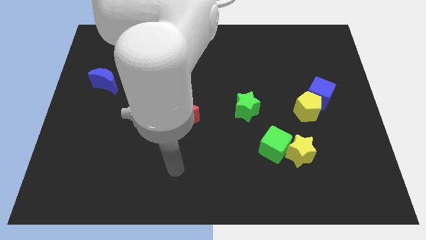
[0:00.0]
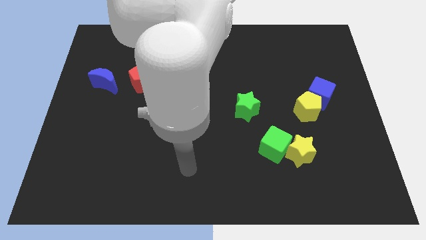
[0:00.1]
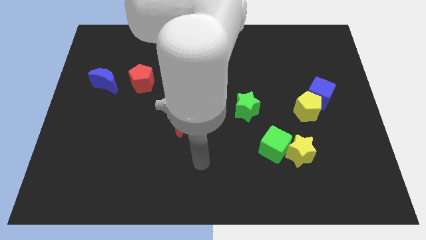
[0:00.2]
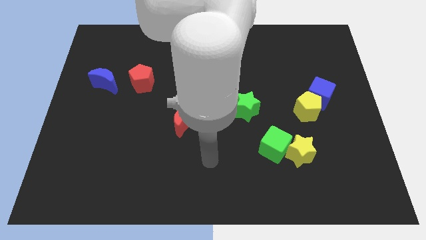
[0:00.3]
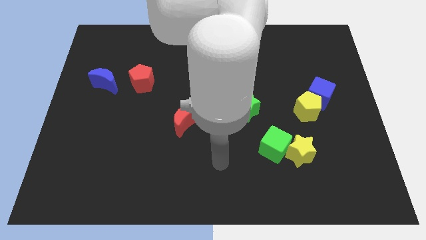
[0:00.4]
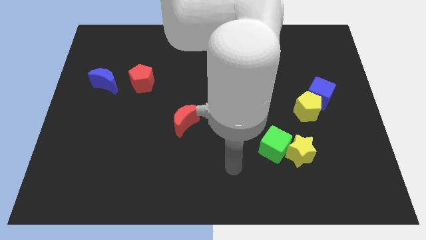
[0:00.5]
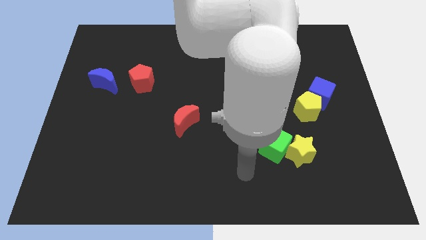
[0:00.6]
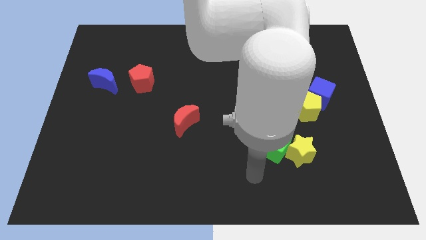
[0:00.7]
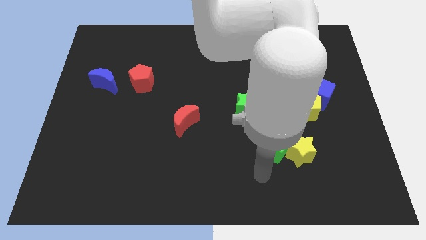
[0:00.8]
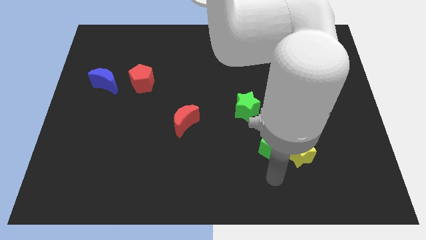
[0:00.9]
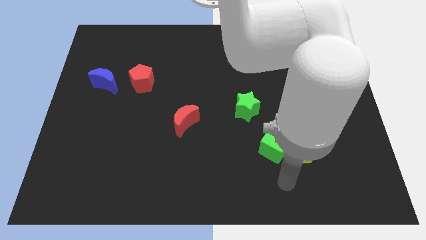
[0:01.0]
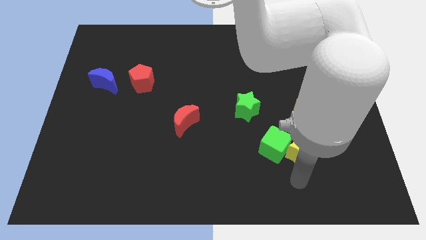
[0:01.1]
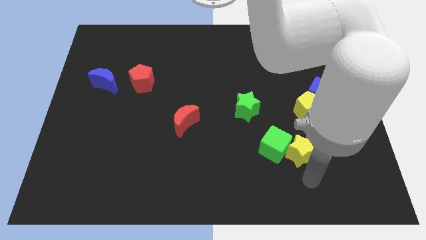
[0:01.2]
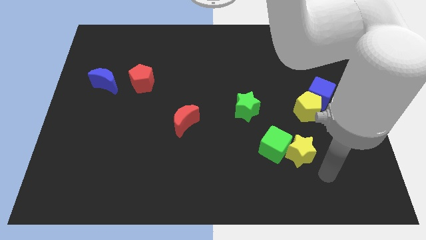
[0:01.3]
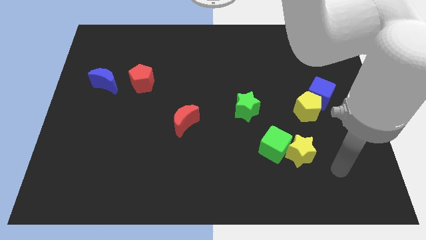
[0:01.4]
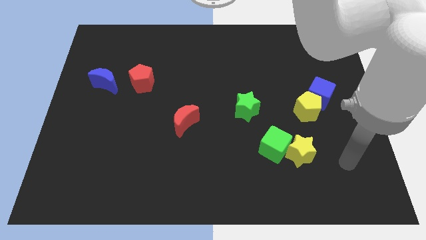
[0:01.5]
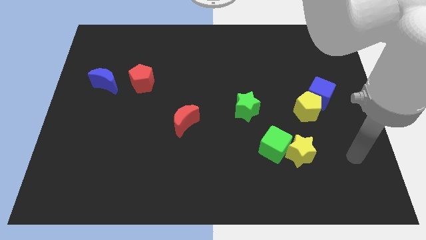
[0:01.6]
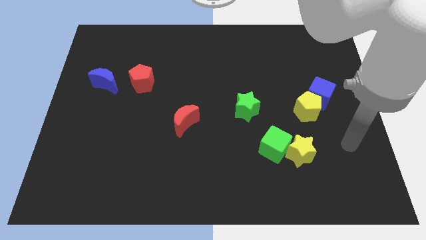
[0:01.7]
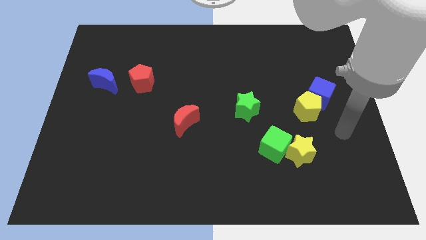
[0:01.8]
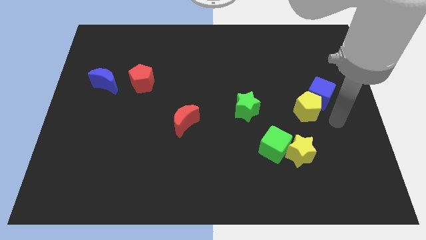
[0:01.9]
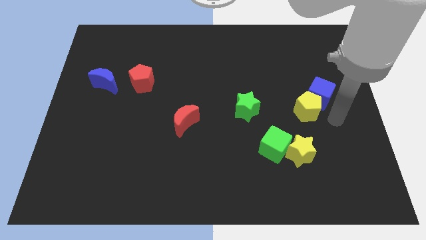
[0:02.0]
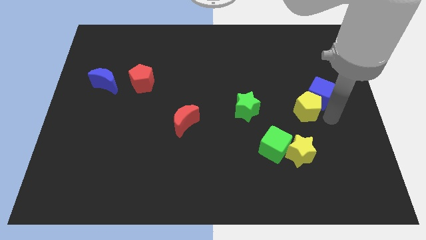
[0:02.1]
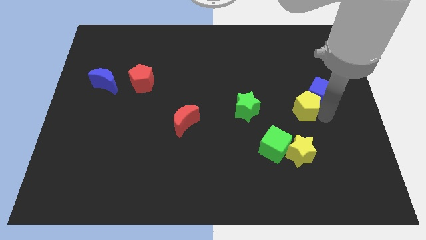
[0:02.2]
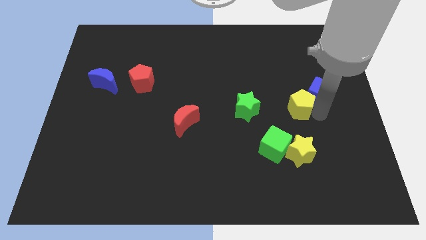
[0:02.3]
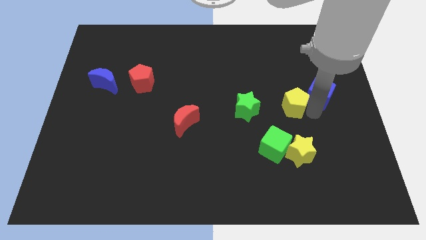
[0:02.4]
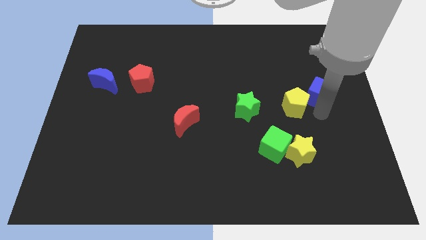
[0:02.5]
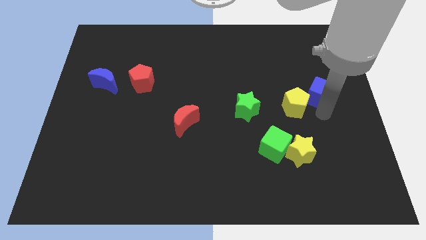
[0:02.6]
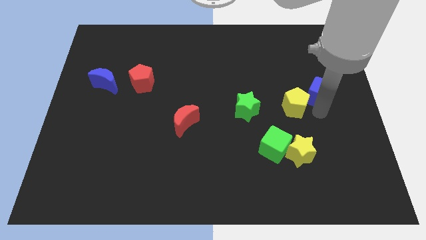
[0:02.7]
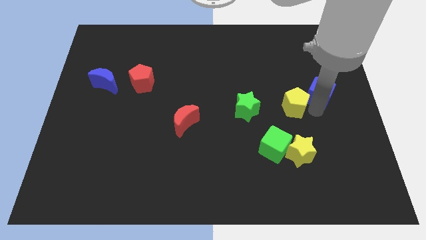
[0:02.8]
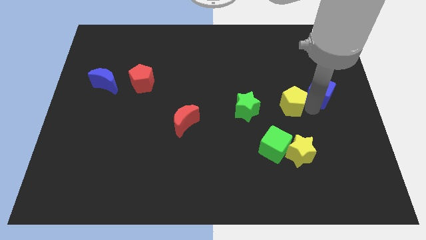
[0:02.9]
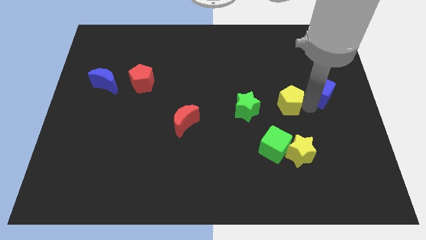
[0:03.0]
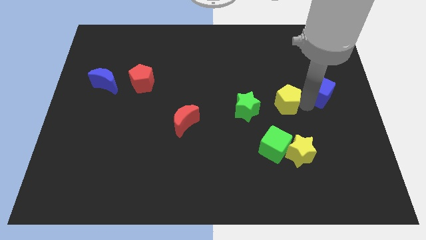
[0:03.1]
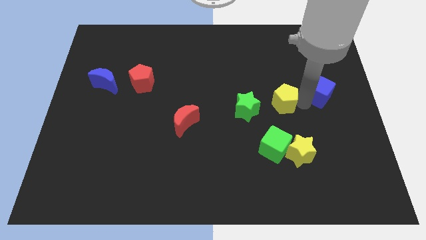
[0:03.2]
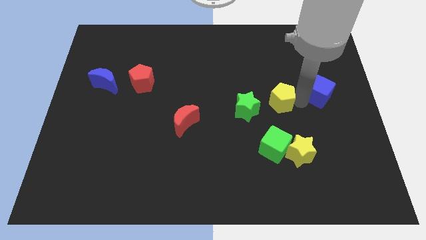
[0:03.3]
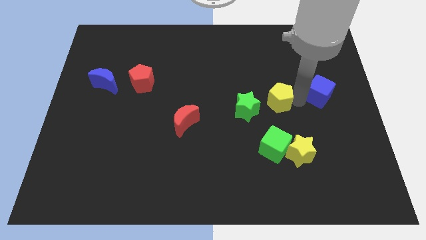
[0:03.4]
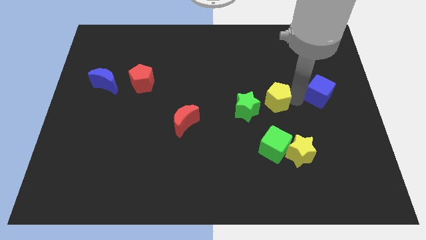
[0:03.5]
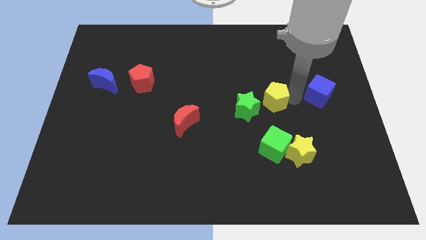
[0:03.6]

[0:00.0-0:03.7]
slide the yellow pentagon to the left somewhat

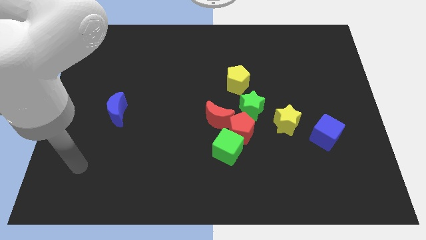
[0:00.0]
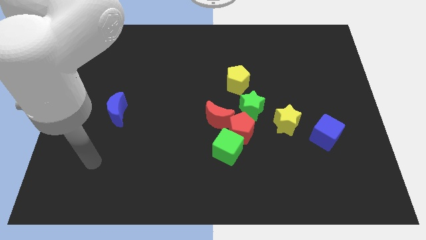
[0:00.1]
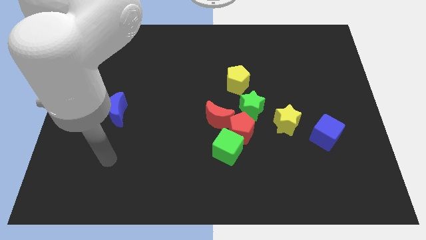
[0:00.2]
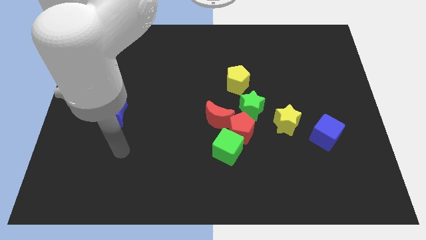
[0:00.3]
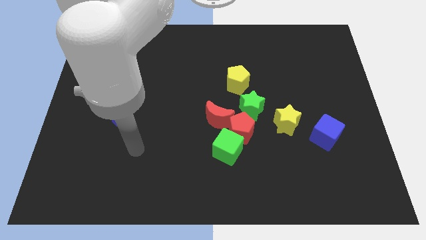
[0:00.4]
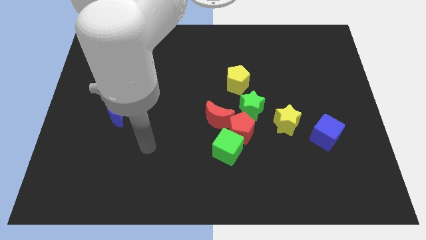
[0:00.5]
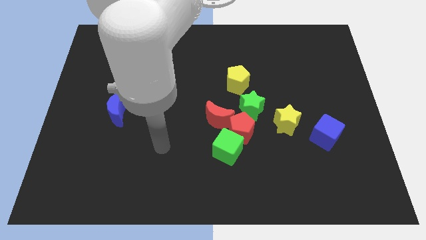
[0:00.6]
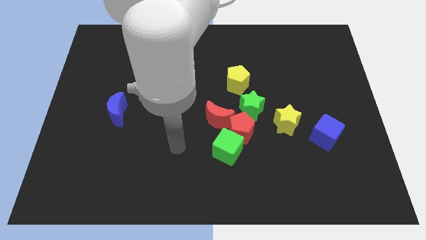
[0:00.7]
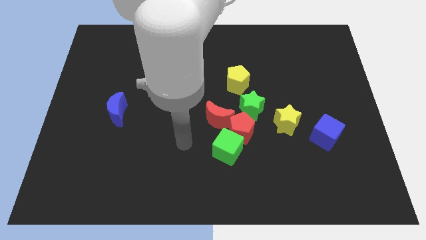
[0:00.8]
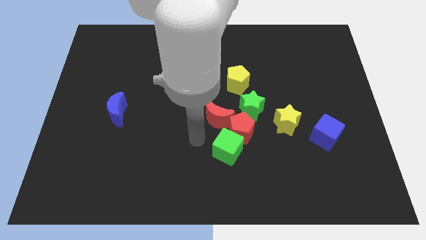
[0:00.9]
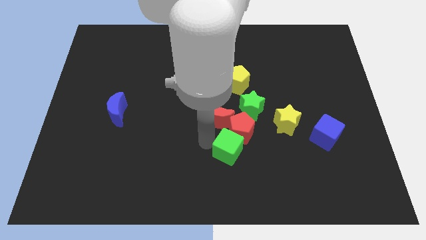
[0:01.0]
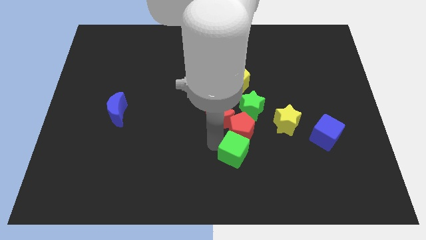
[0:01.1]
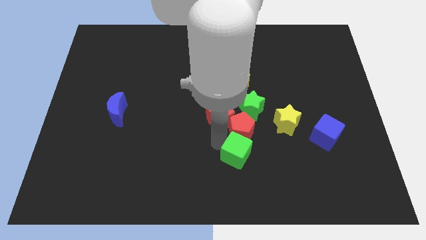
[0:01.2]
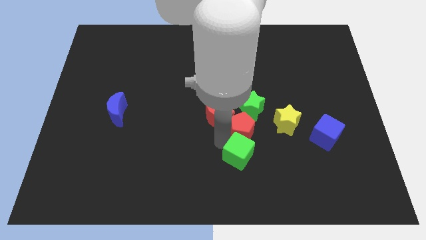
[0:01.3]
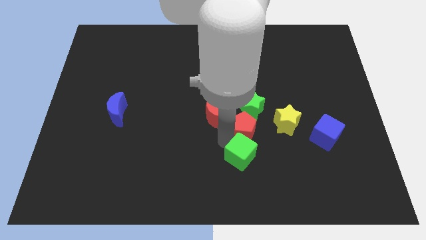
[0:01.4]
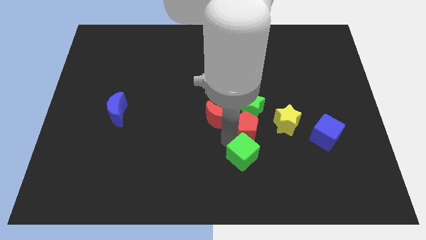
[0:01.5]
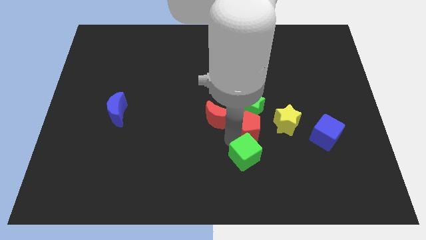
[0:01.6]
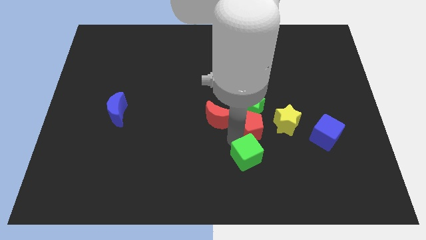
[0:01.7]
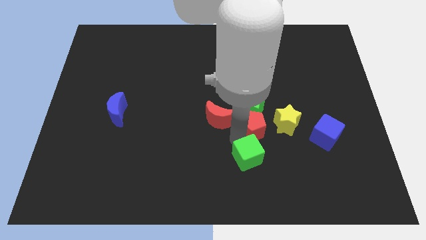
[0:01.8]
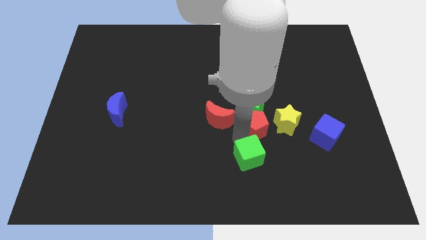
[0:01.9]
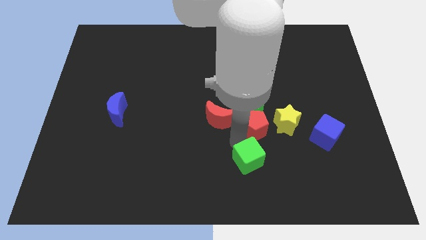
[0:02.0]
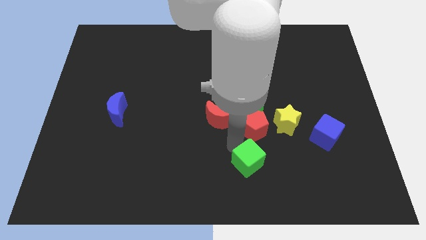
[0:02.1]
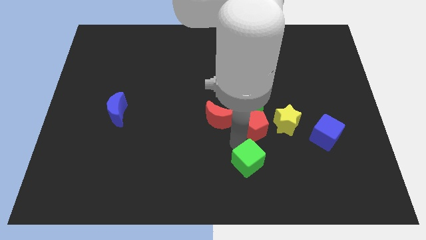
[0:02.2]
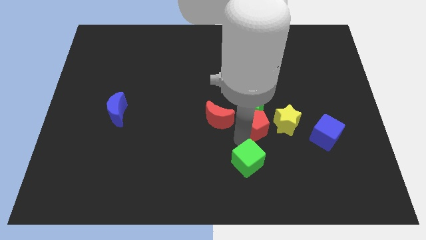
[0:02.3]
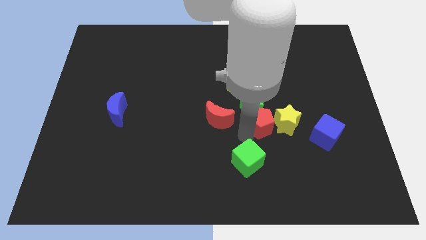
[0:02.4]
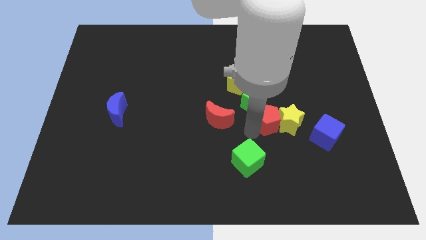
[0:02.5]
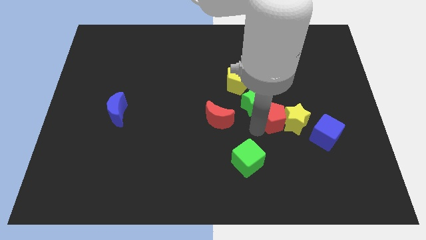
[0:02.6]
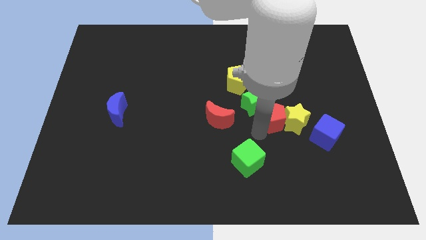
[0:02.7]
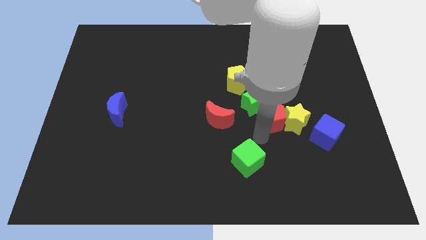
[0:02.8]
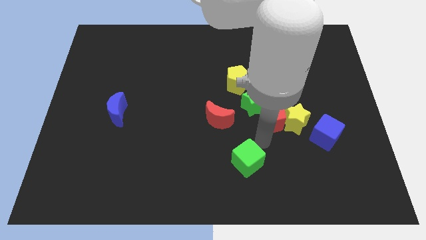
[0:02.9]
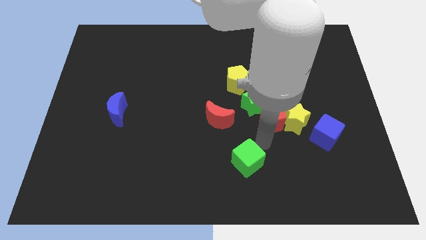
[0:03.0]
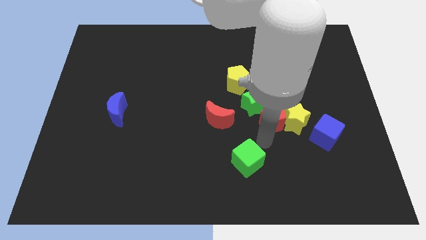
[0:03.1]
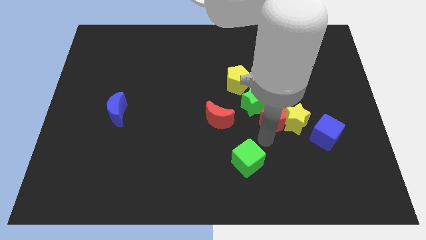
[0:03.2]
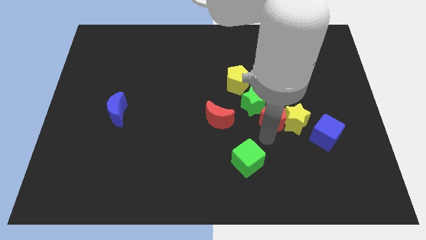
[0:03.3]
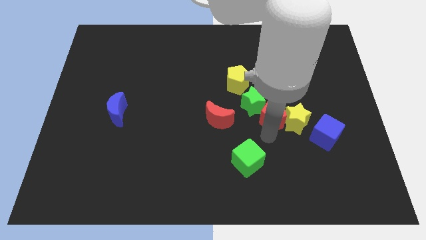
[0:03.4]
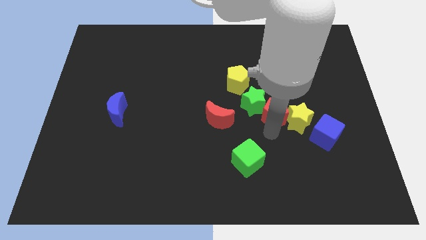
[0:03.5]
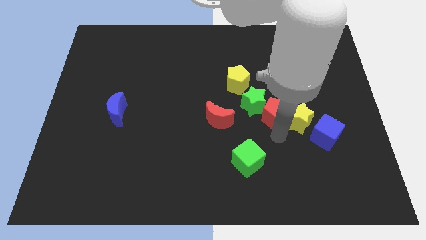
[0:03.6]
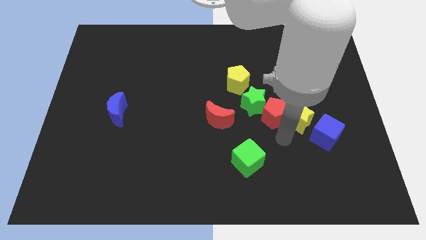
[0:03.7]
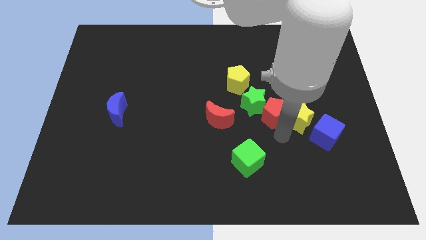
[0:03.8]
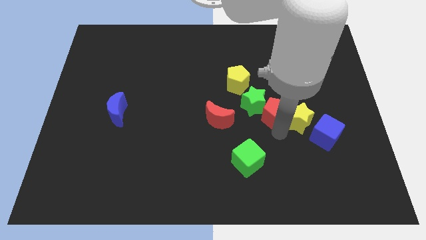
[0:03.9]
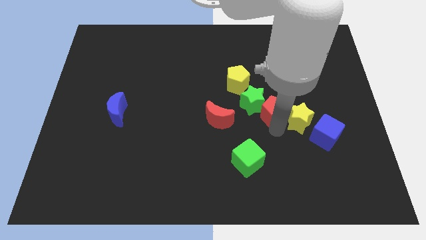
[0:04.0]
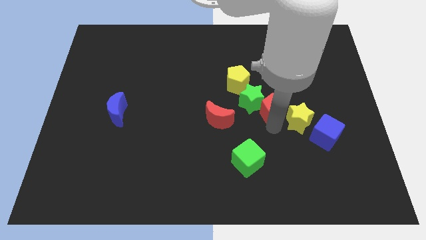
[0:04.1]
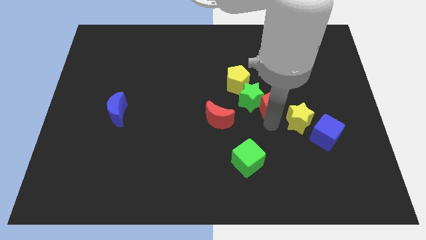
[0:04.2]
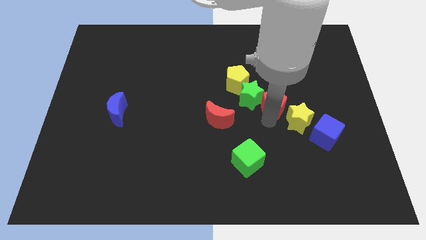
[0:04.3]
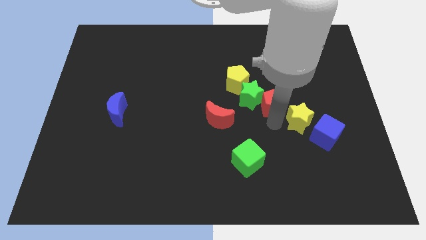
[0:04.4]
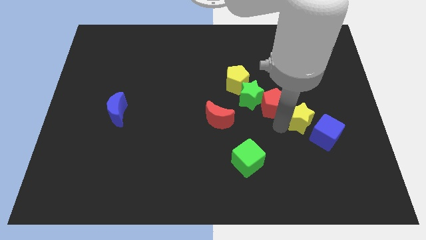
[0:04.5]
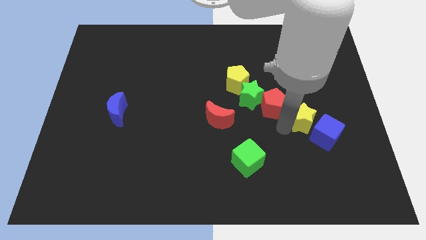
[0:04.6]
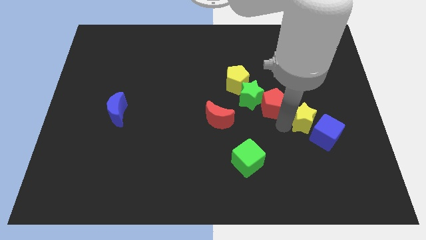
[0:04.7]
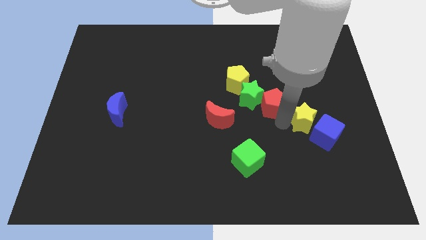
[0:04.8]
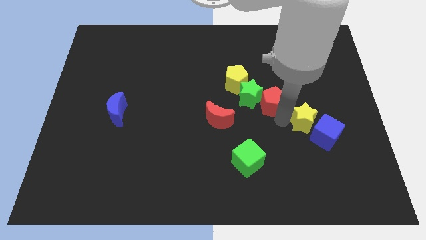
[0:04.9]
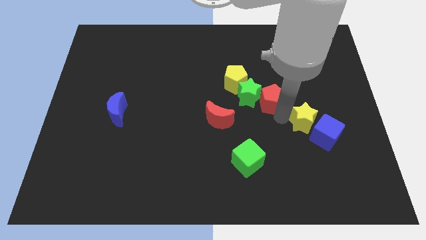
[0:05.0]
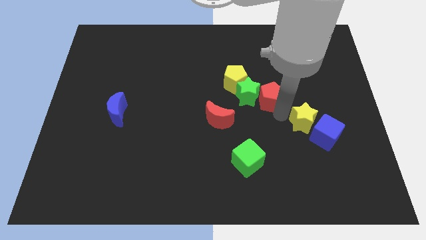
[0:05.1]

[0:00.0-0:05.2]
slightly slide the red pentagon upwards
